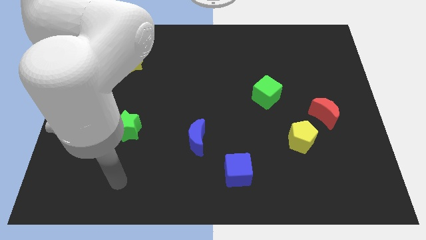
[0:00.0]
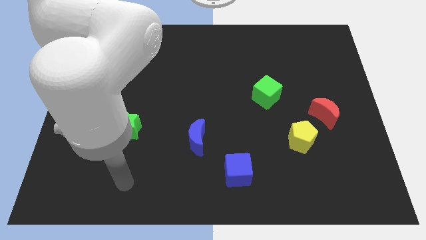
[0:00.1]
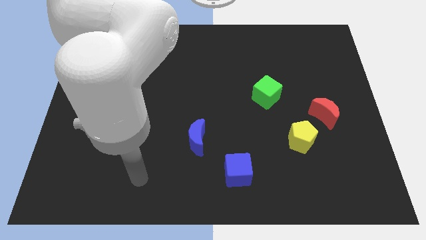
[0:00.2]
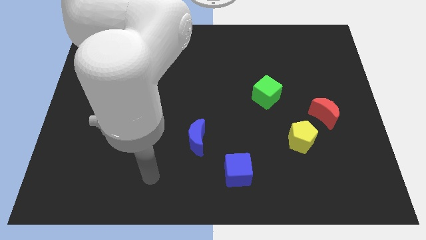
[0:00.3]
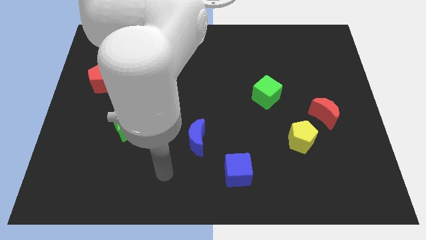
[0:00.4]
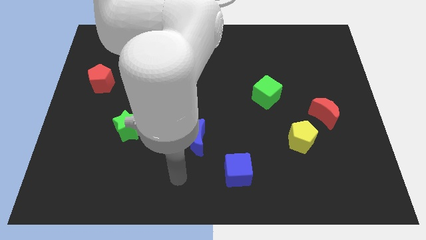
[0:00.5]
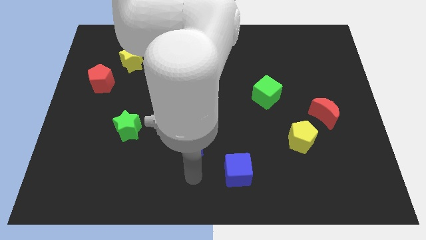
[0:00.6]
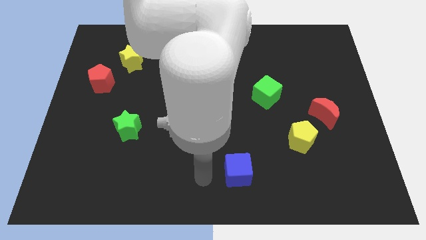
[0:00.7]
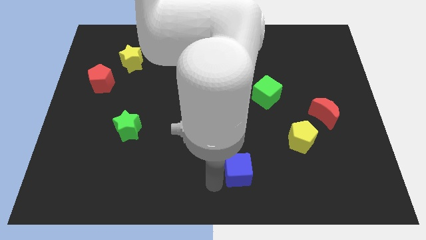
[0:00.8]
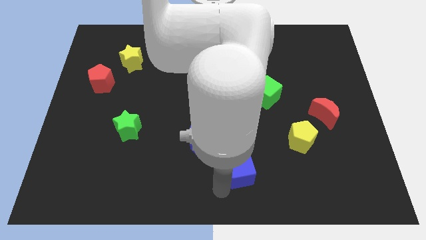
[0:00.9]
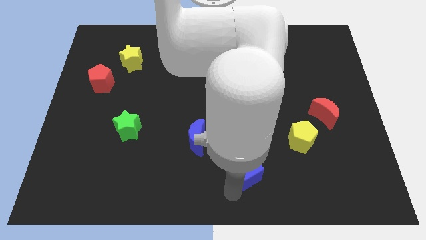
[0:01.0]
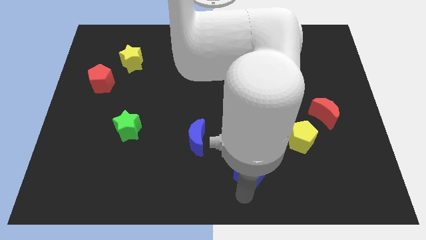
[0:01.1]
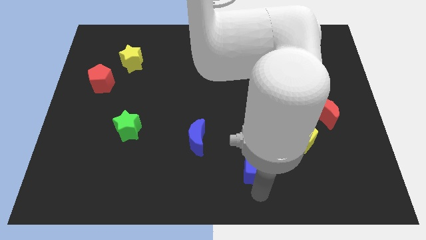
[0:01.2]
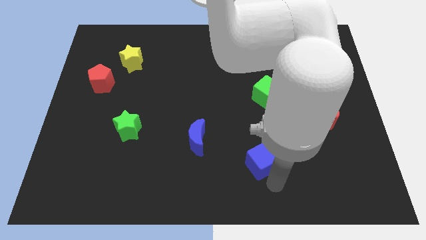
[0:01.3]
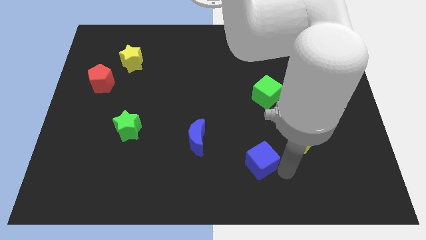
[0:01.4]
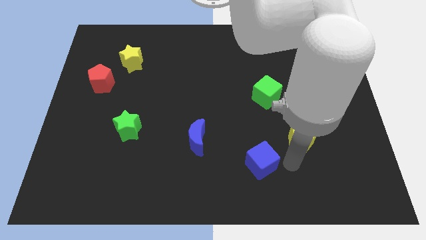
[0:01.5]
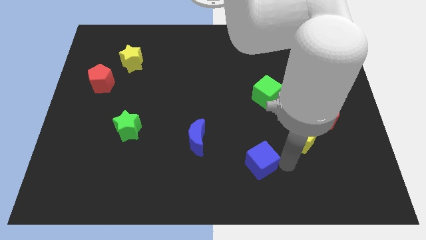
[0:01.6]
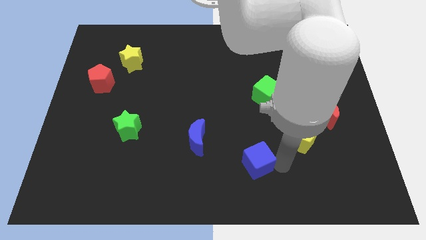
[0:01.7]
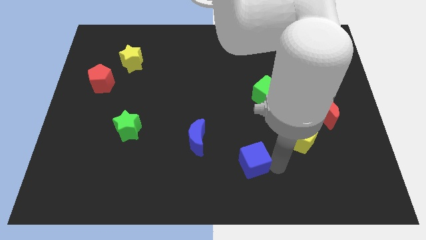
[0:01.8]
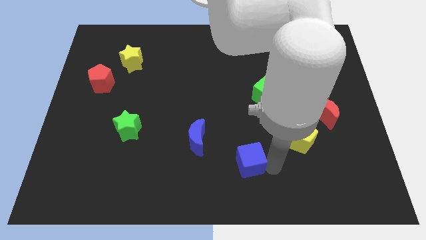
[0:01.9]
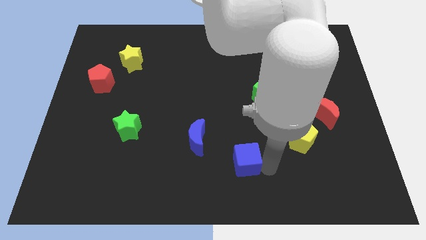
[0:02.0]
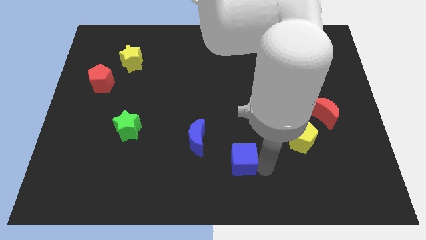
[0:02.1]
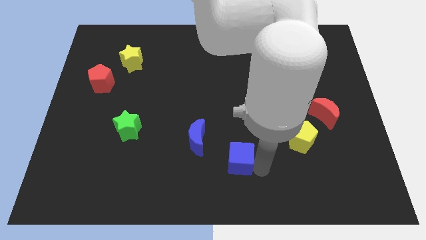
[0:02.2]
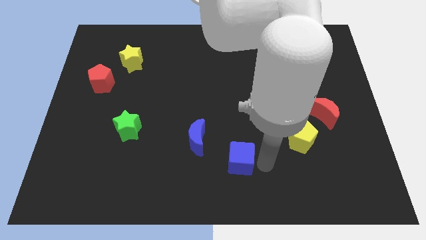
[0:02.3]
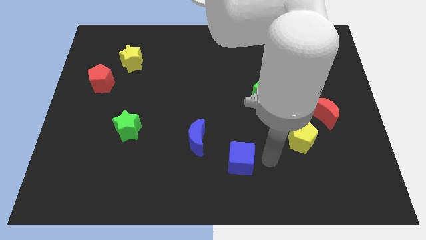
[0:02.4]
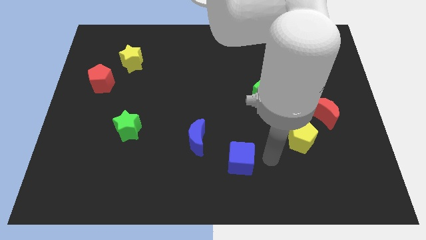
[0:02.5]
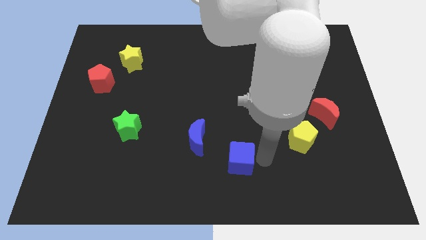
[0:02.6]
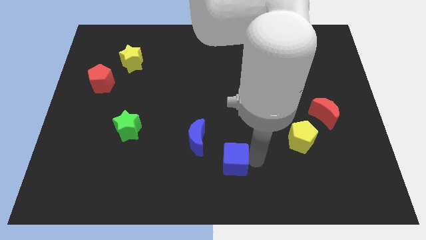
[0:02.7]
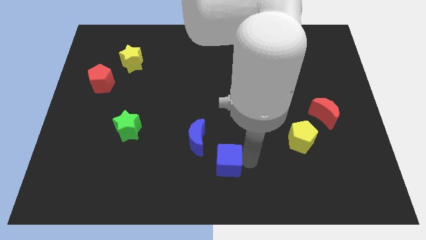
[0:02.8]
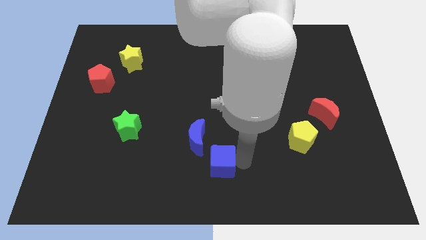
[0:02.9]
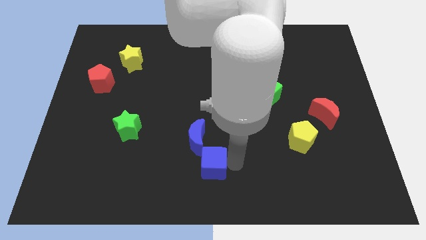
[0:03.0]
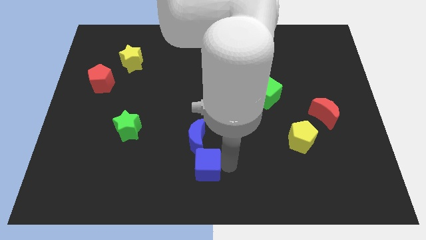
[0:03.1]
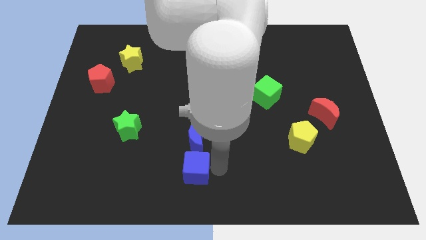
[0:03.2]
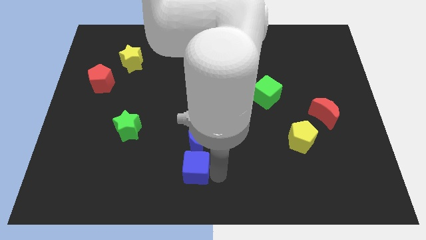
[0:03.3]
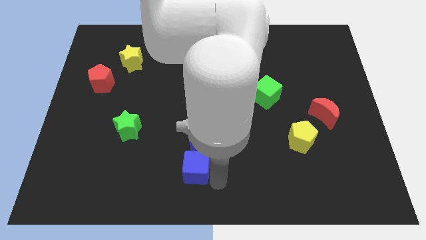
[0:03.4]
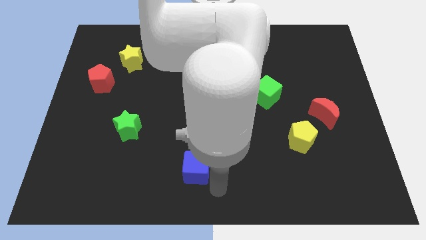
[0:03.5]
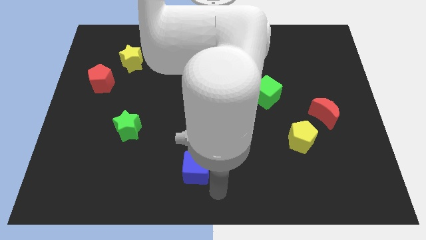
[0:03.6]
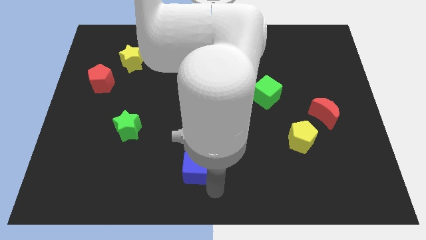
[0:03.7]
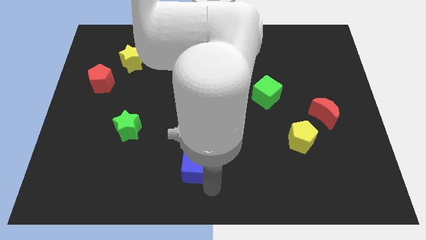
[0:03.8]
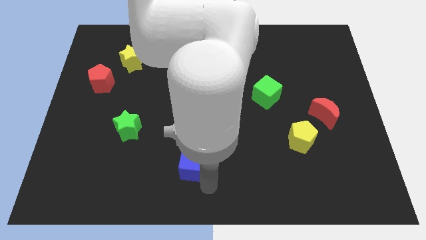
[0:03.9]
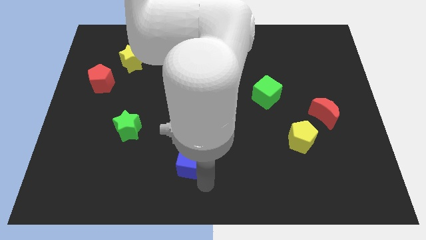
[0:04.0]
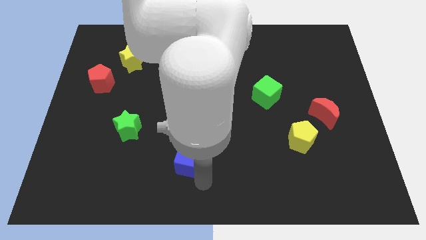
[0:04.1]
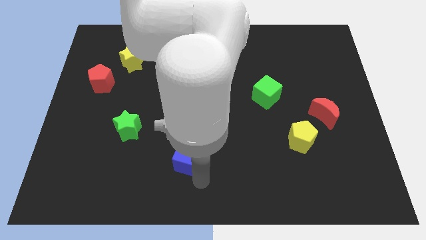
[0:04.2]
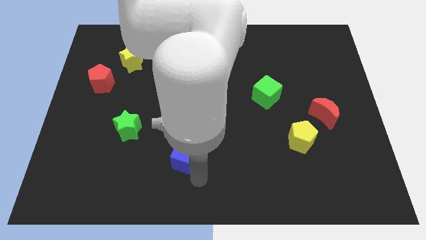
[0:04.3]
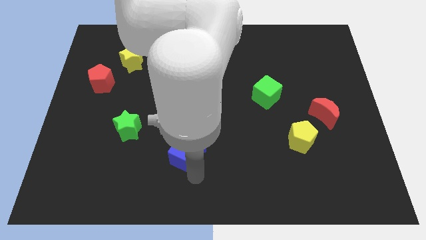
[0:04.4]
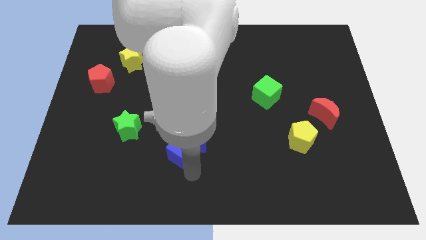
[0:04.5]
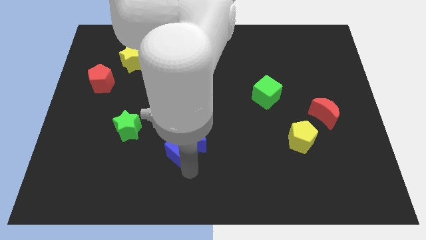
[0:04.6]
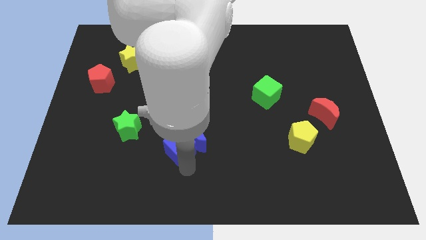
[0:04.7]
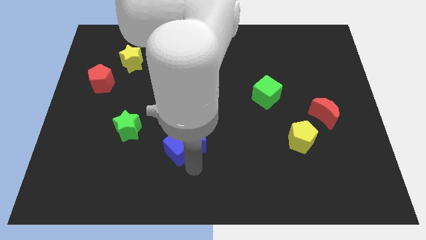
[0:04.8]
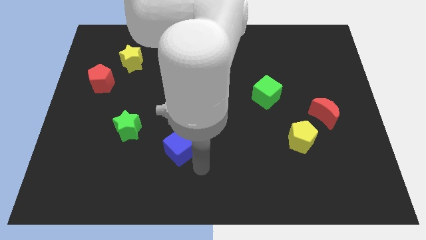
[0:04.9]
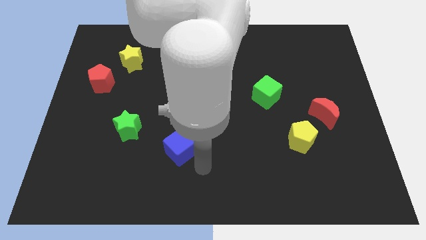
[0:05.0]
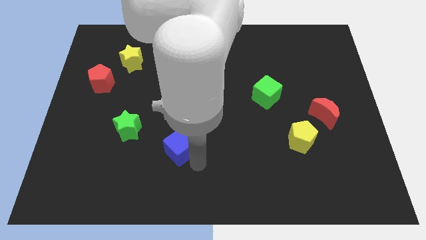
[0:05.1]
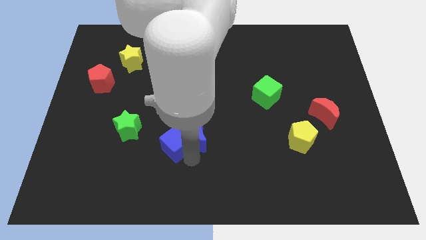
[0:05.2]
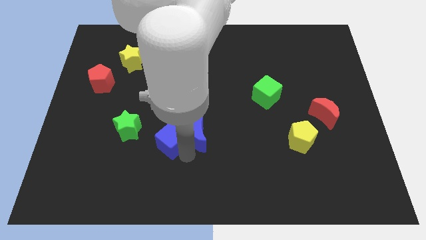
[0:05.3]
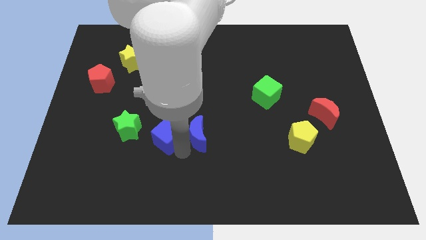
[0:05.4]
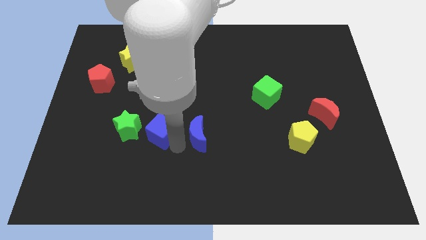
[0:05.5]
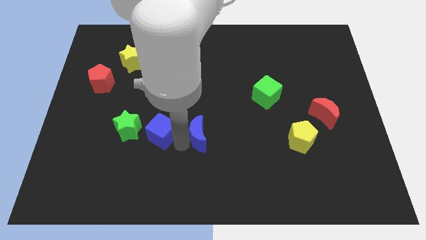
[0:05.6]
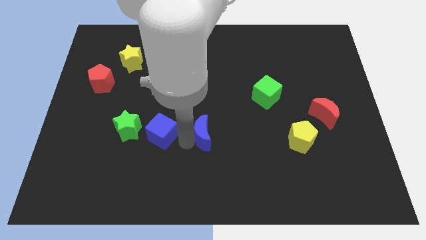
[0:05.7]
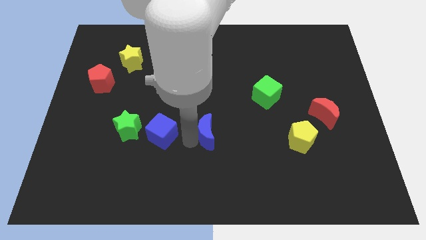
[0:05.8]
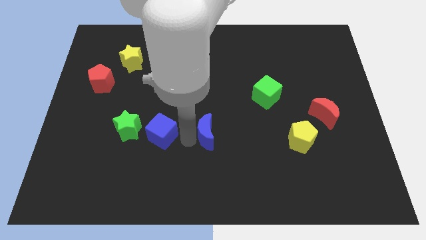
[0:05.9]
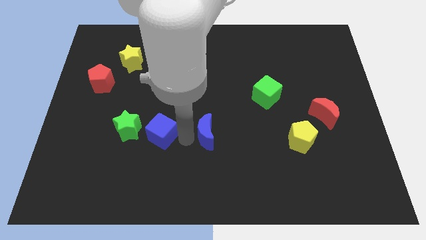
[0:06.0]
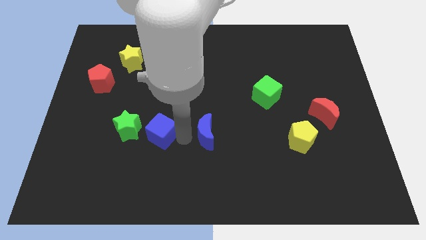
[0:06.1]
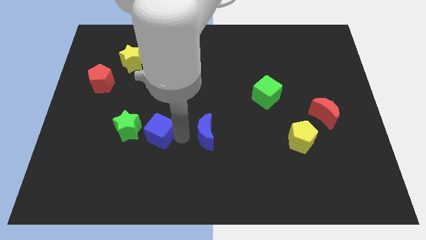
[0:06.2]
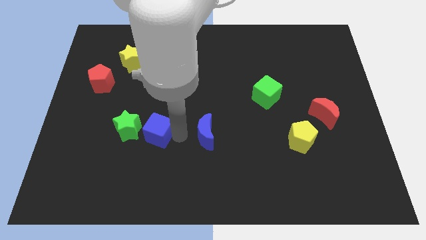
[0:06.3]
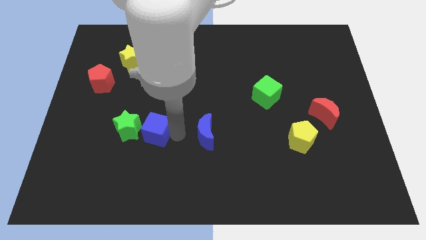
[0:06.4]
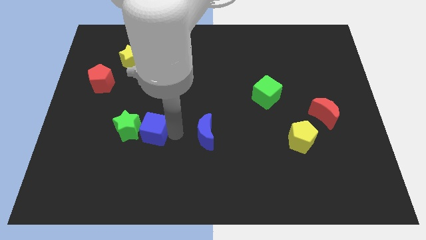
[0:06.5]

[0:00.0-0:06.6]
move the blue cube close to the green star

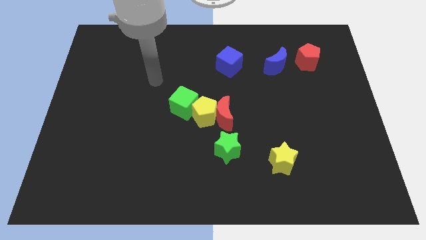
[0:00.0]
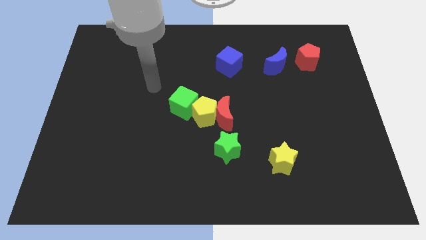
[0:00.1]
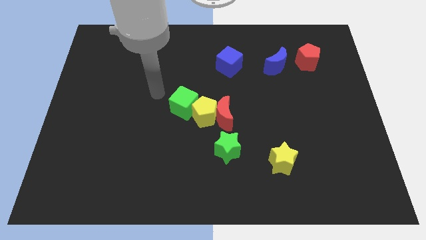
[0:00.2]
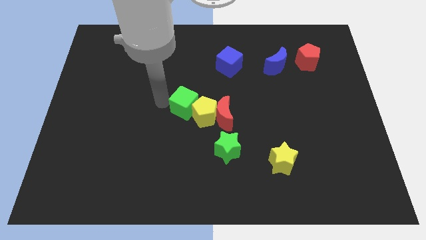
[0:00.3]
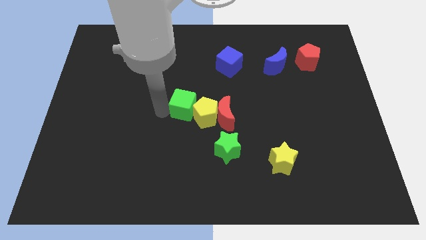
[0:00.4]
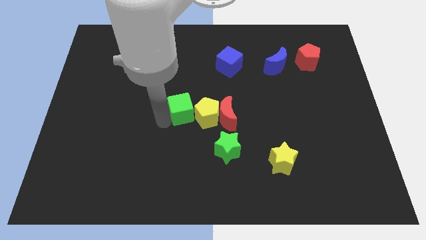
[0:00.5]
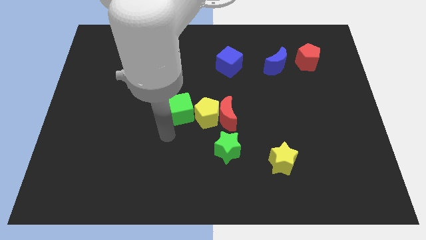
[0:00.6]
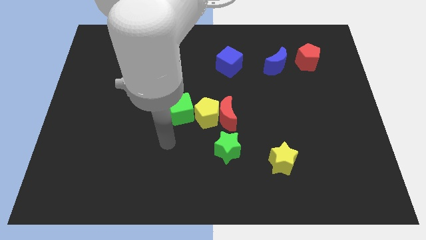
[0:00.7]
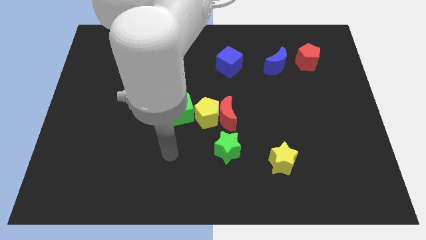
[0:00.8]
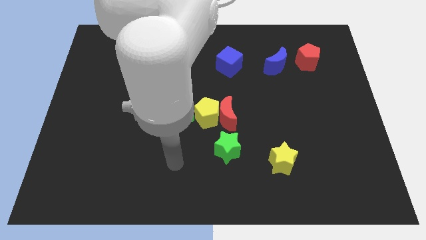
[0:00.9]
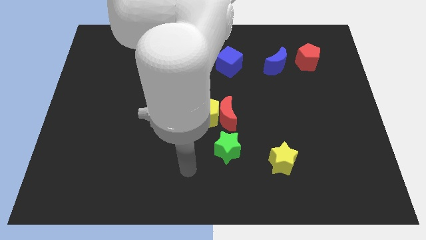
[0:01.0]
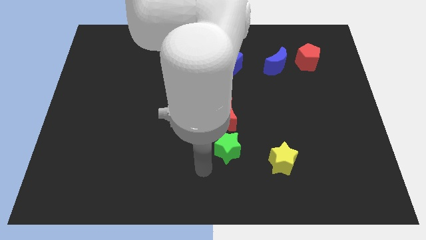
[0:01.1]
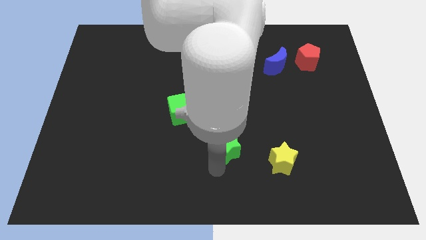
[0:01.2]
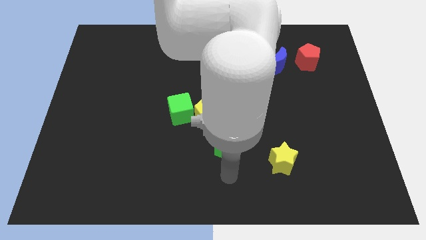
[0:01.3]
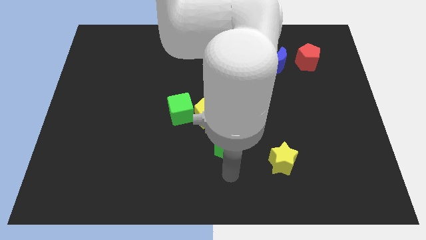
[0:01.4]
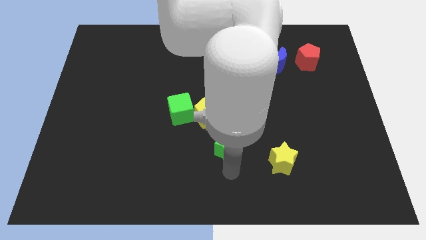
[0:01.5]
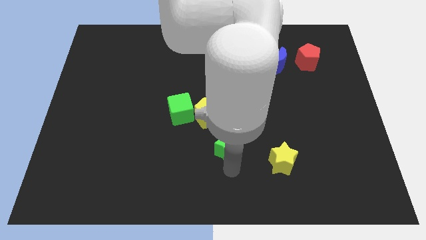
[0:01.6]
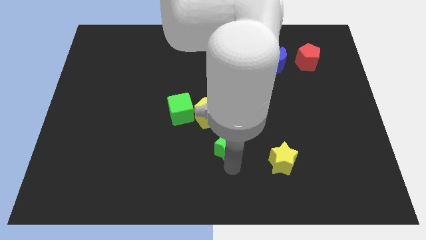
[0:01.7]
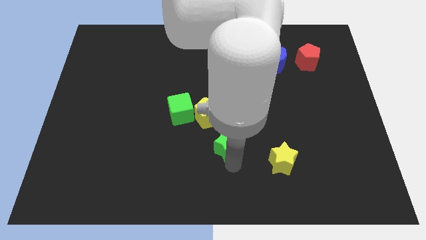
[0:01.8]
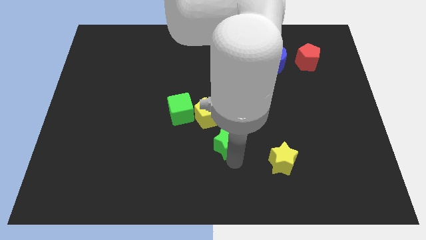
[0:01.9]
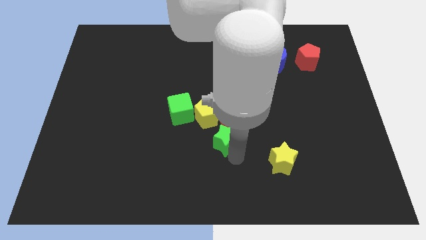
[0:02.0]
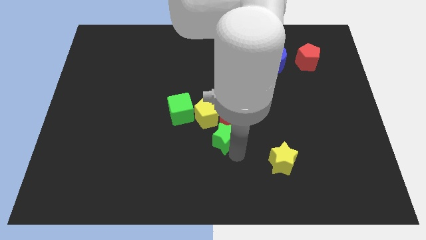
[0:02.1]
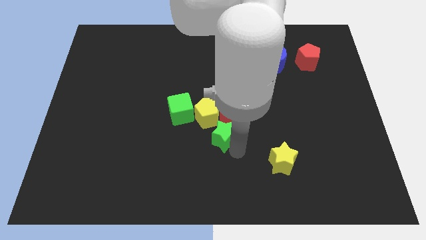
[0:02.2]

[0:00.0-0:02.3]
move the green star towards the red moon
